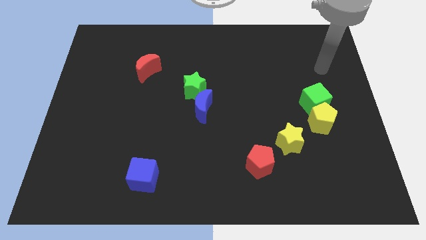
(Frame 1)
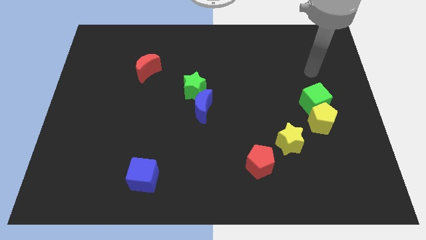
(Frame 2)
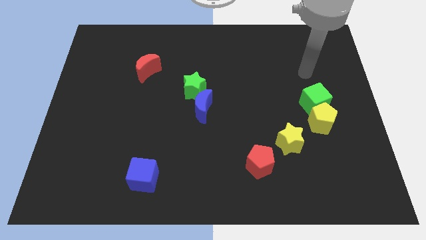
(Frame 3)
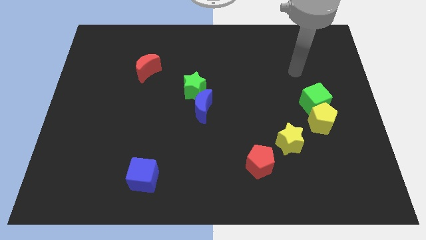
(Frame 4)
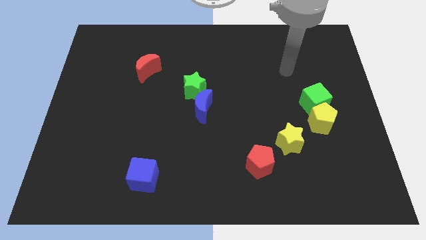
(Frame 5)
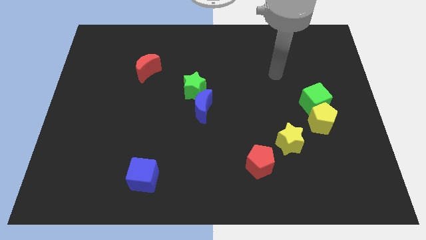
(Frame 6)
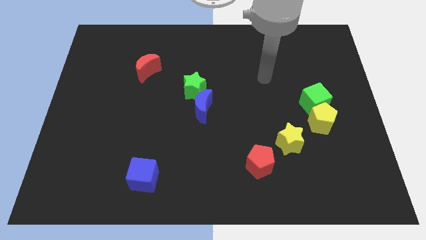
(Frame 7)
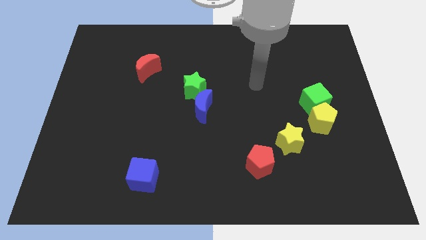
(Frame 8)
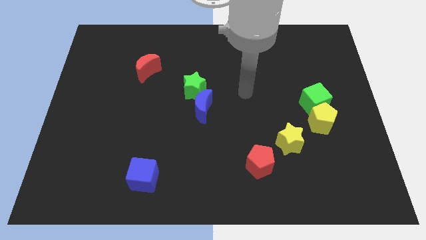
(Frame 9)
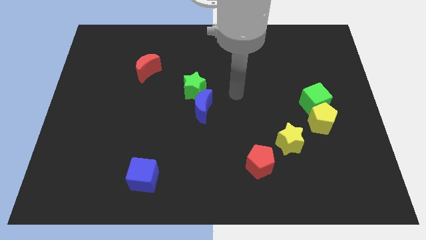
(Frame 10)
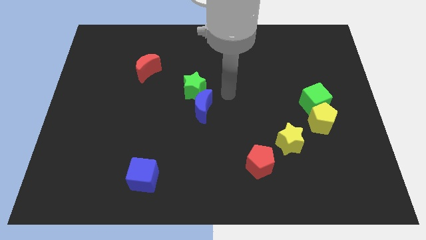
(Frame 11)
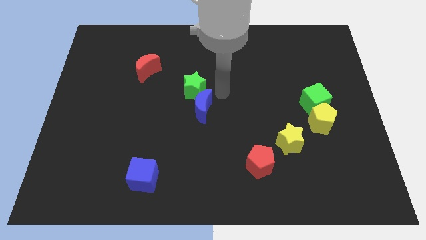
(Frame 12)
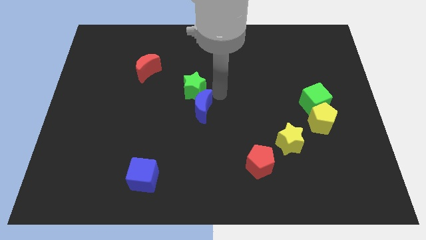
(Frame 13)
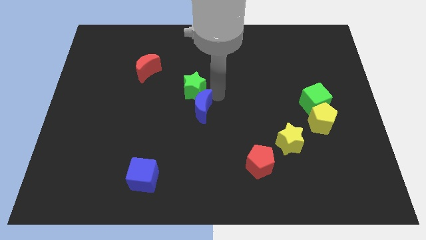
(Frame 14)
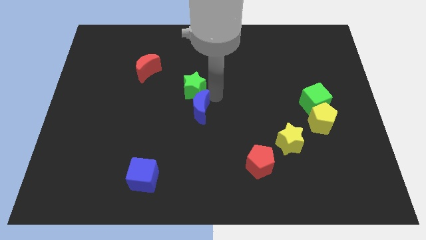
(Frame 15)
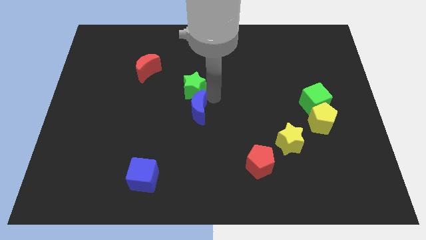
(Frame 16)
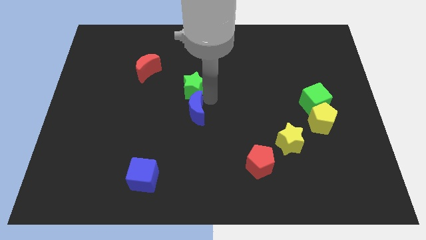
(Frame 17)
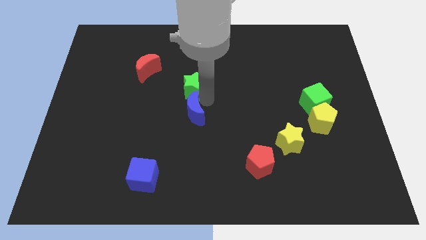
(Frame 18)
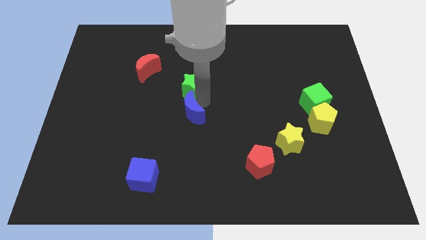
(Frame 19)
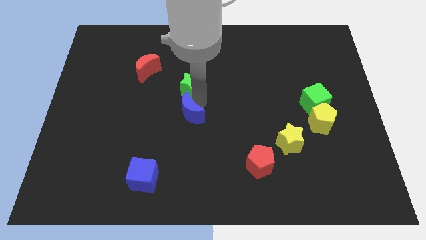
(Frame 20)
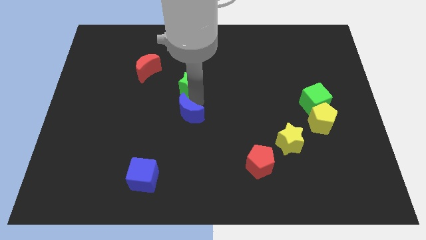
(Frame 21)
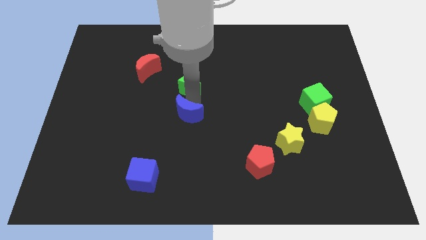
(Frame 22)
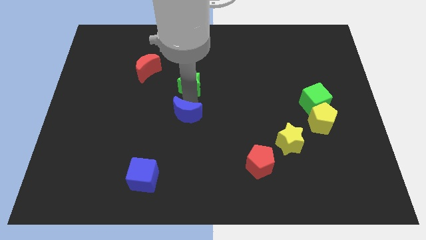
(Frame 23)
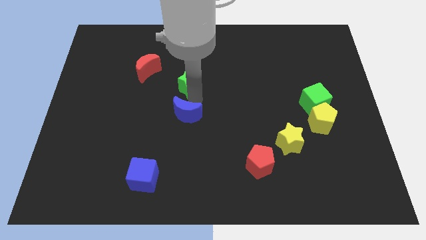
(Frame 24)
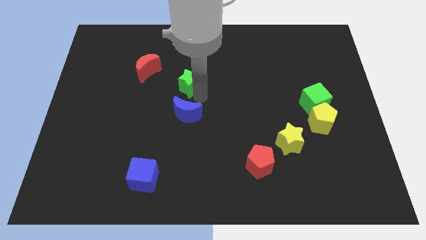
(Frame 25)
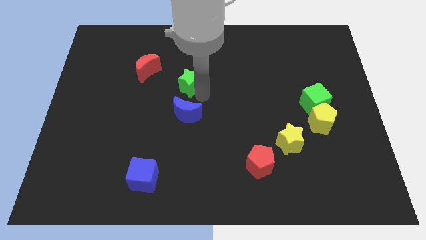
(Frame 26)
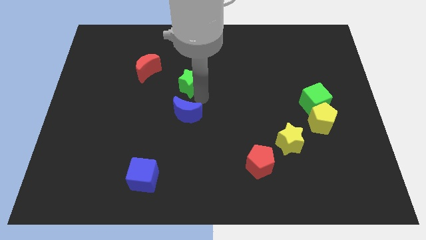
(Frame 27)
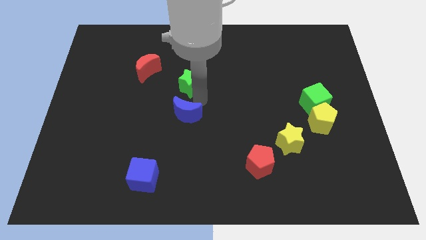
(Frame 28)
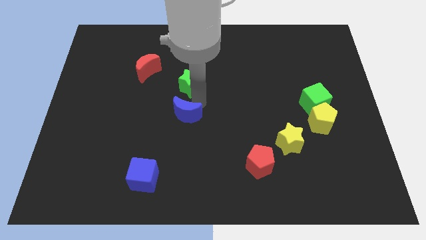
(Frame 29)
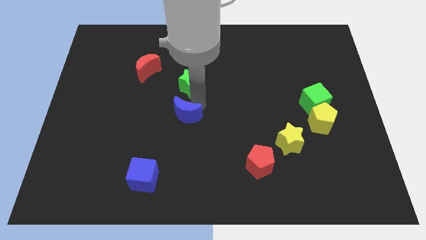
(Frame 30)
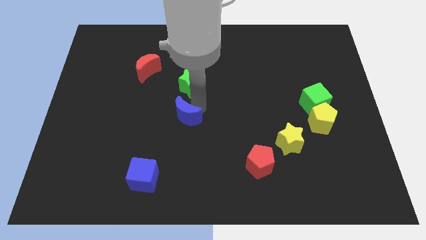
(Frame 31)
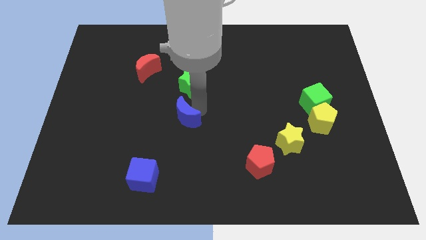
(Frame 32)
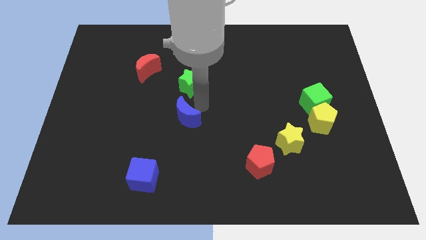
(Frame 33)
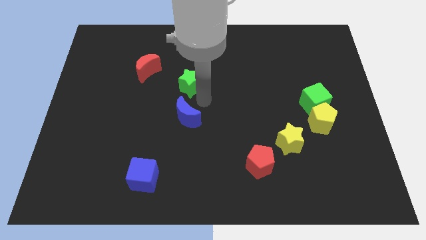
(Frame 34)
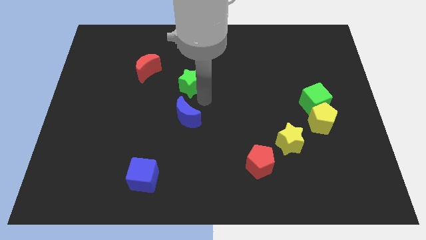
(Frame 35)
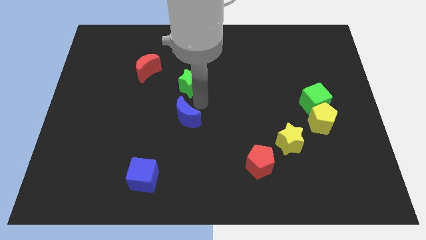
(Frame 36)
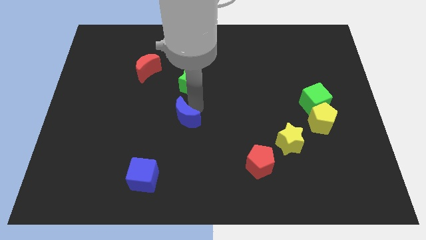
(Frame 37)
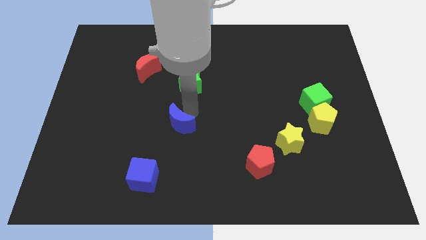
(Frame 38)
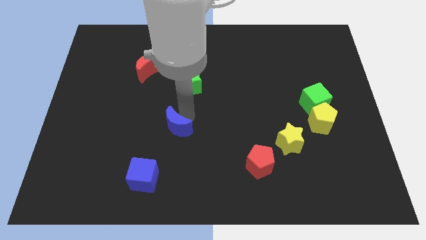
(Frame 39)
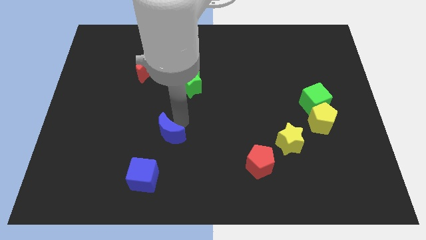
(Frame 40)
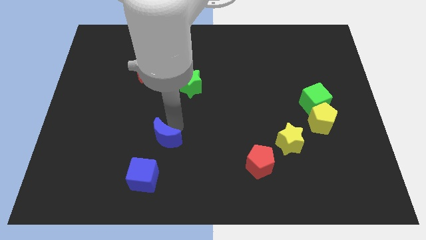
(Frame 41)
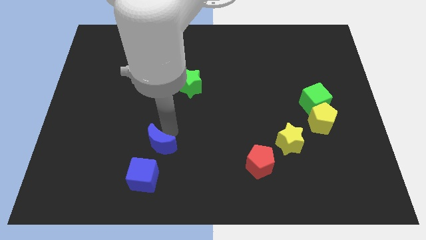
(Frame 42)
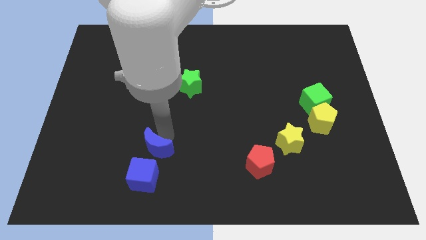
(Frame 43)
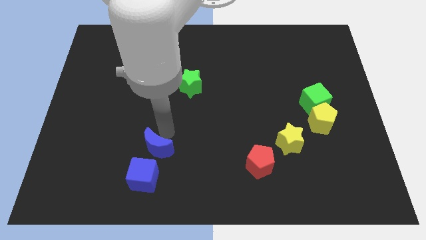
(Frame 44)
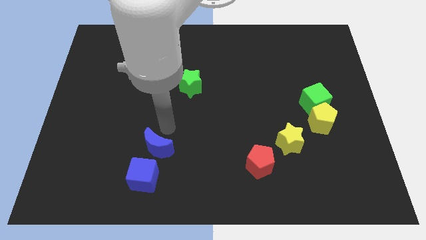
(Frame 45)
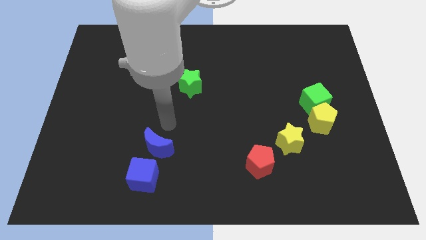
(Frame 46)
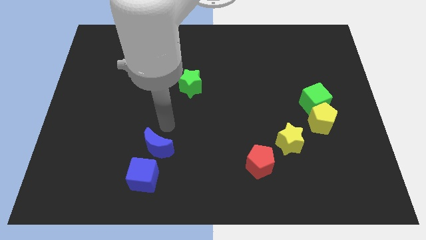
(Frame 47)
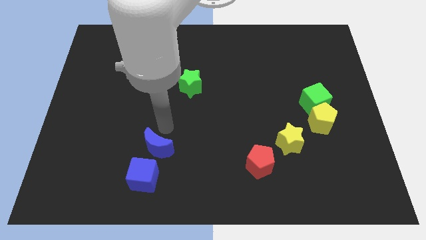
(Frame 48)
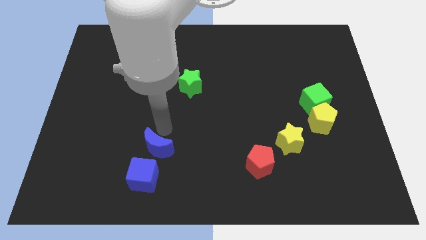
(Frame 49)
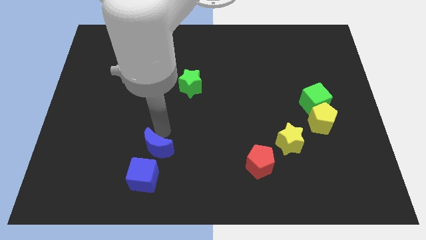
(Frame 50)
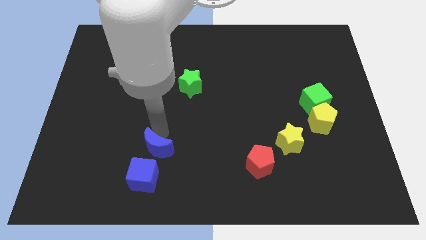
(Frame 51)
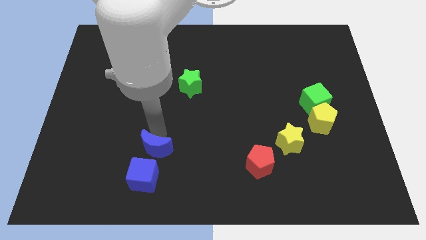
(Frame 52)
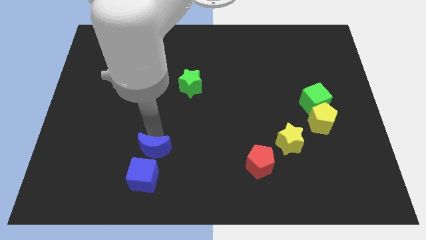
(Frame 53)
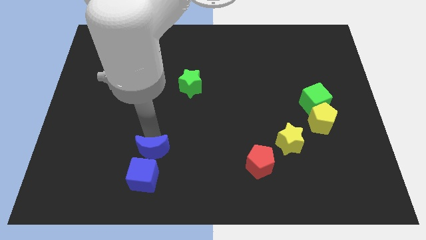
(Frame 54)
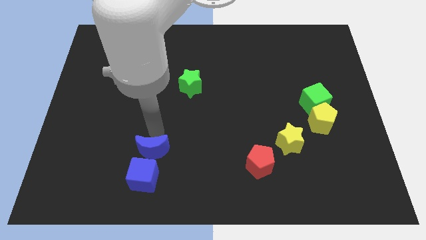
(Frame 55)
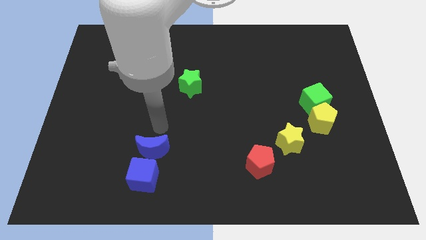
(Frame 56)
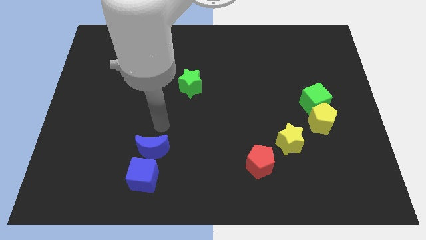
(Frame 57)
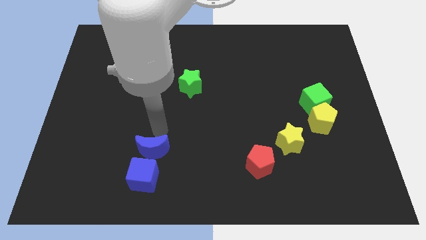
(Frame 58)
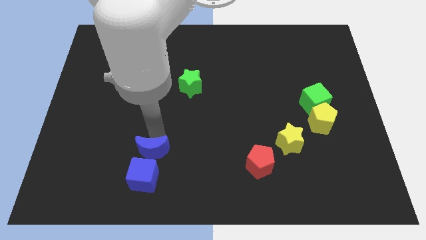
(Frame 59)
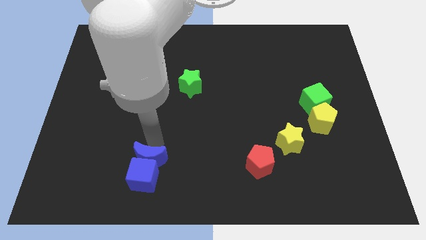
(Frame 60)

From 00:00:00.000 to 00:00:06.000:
move the blue moon towards the blue cube
